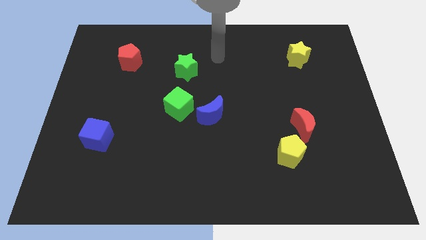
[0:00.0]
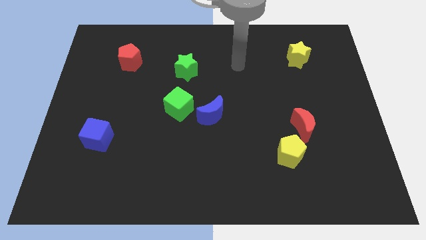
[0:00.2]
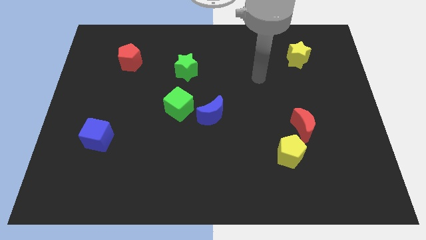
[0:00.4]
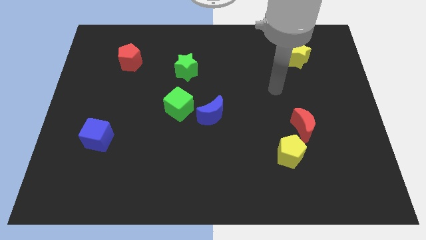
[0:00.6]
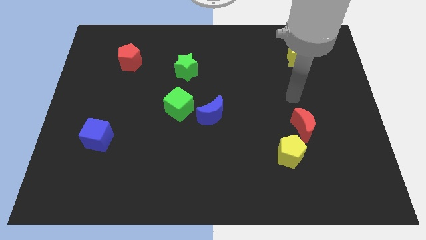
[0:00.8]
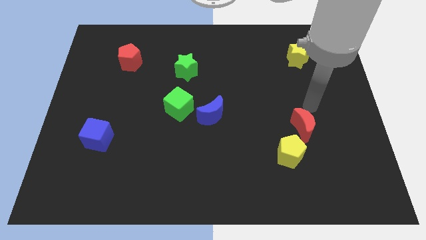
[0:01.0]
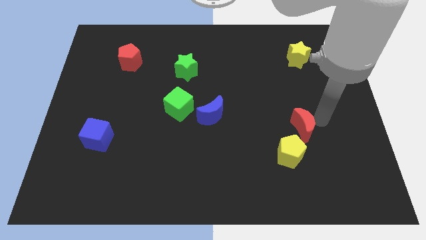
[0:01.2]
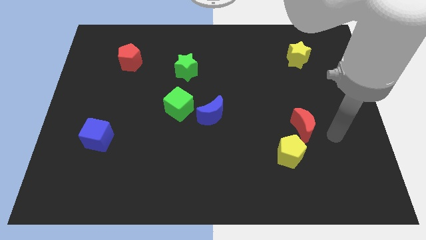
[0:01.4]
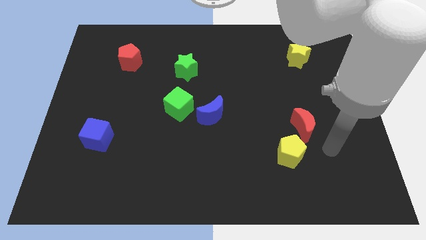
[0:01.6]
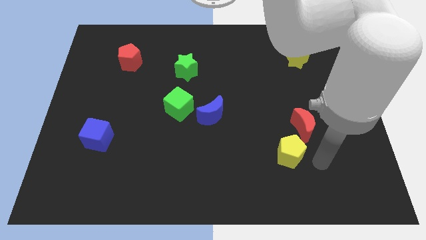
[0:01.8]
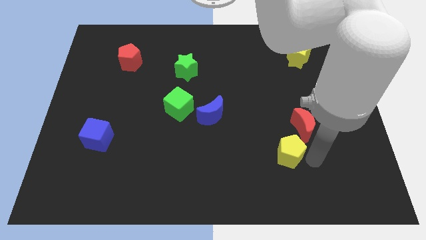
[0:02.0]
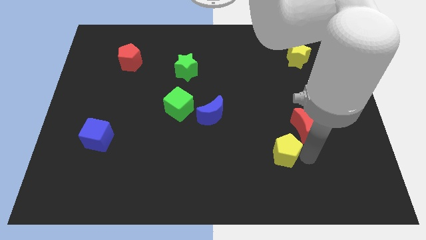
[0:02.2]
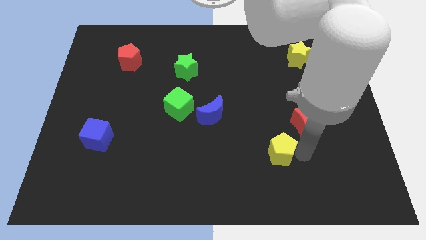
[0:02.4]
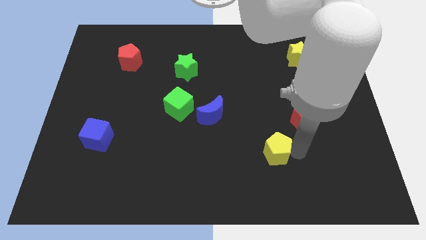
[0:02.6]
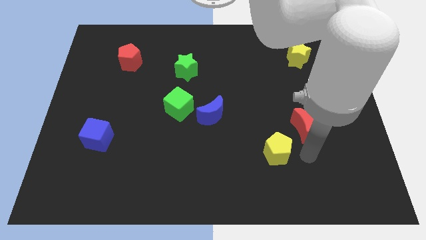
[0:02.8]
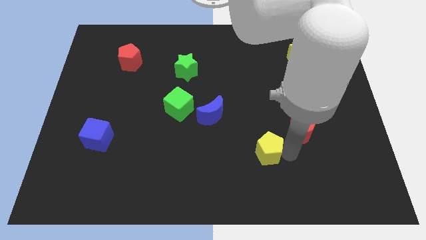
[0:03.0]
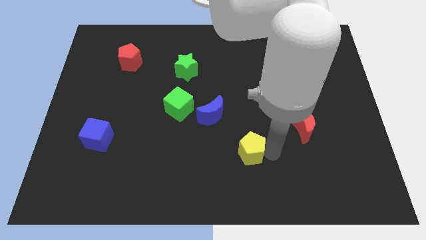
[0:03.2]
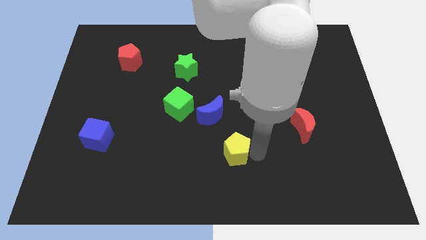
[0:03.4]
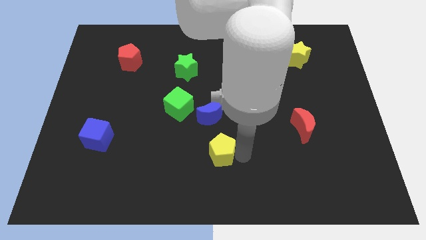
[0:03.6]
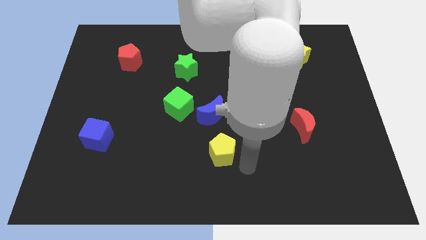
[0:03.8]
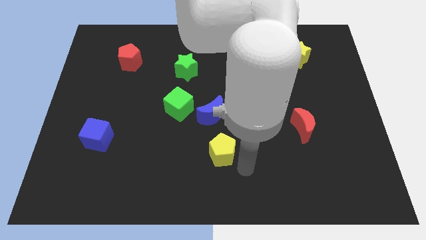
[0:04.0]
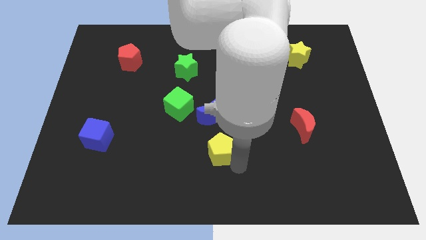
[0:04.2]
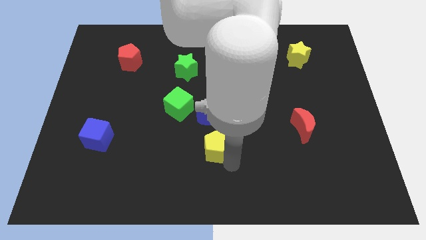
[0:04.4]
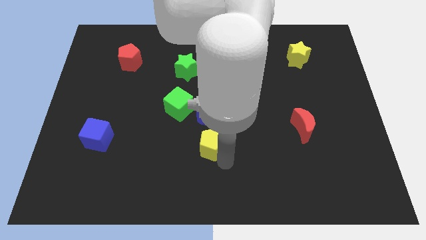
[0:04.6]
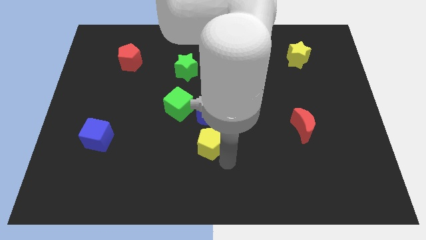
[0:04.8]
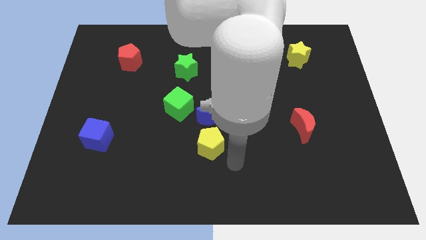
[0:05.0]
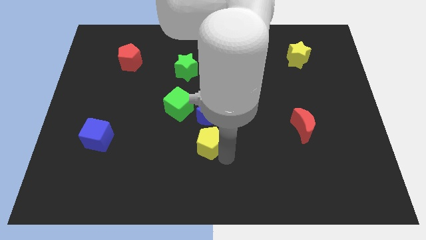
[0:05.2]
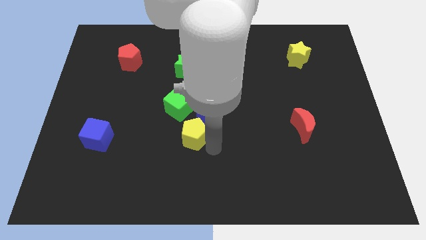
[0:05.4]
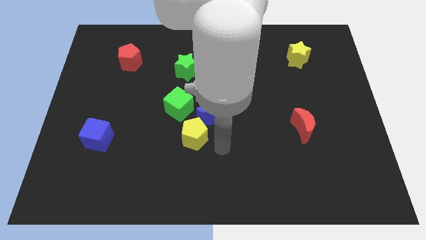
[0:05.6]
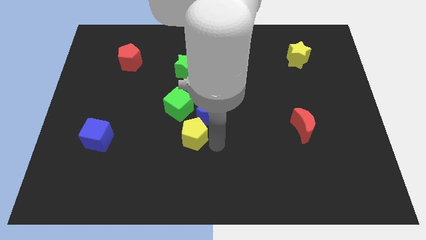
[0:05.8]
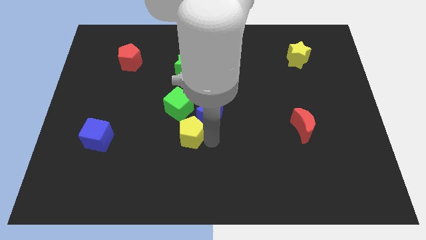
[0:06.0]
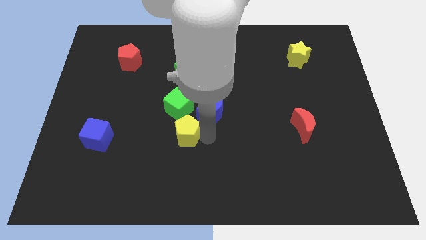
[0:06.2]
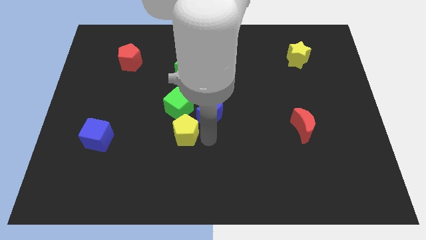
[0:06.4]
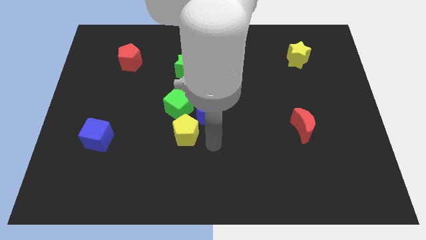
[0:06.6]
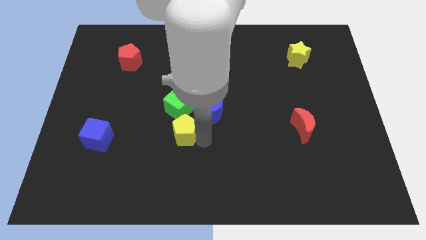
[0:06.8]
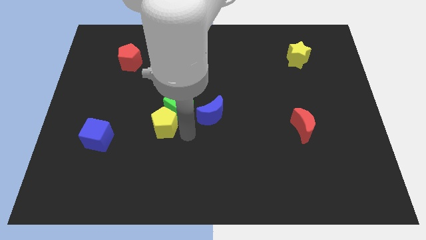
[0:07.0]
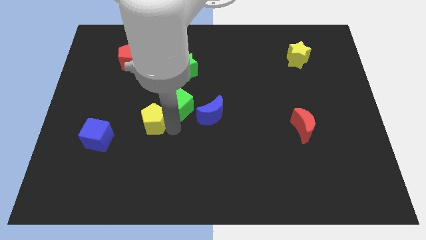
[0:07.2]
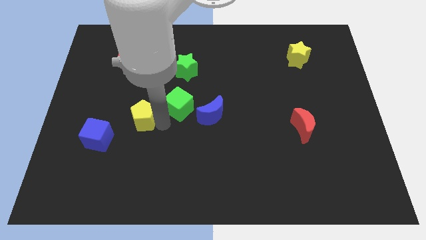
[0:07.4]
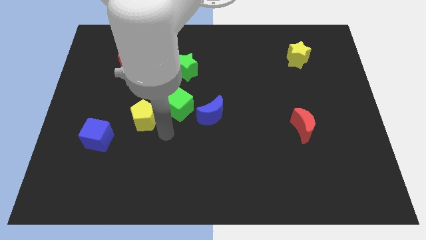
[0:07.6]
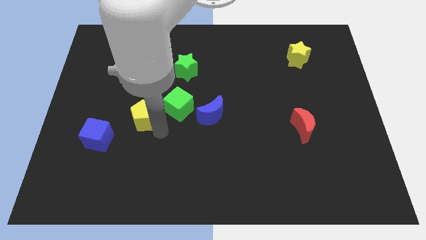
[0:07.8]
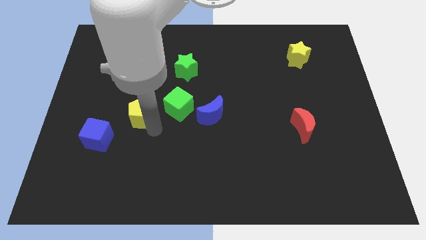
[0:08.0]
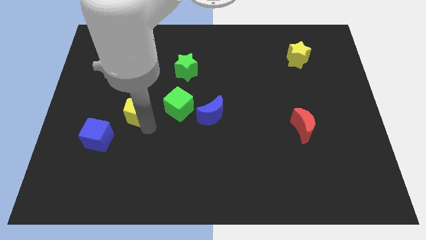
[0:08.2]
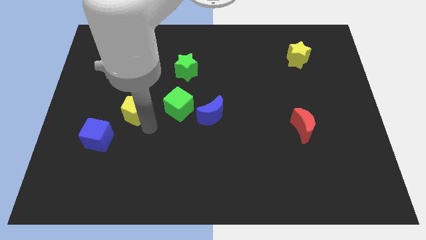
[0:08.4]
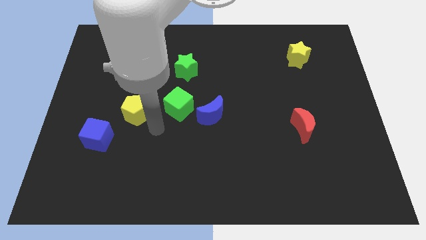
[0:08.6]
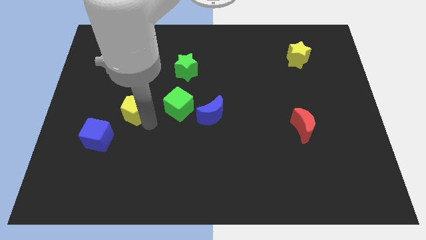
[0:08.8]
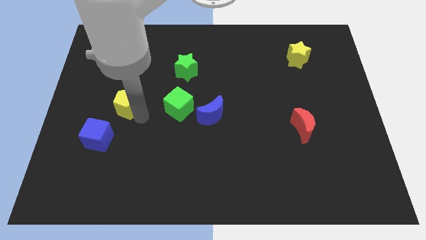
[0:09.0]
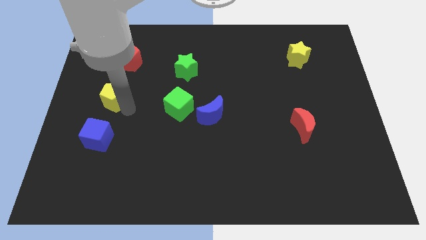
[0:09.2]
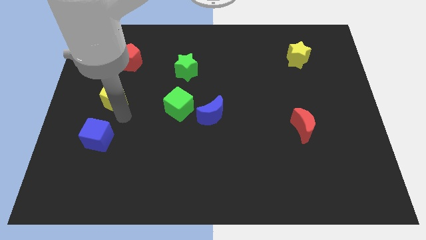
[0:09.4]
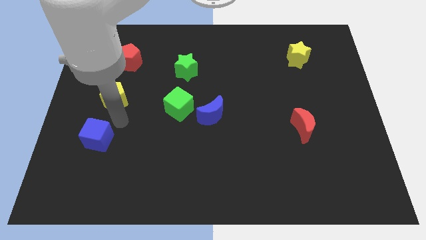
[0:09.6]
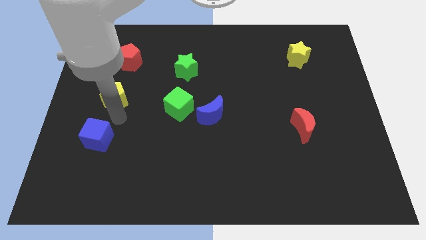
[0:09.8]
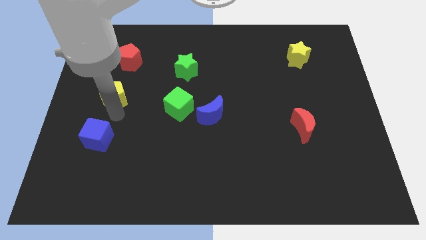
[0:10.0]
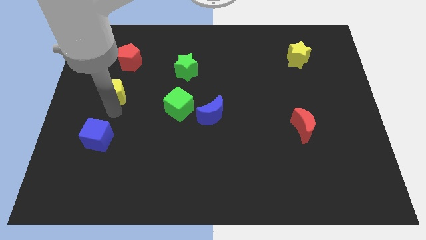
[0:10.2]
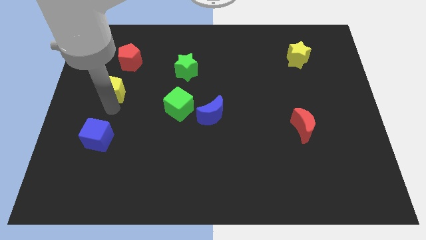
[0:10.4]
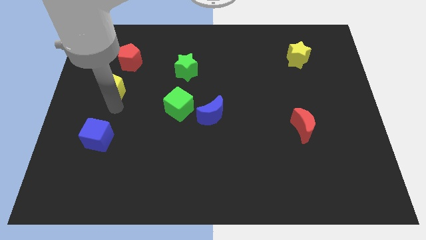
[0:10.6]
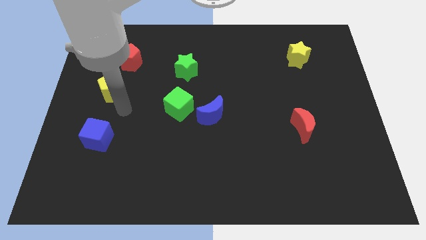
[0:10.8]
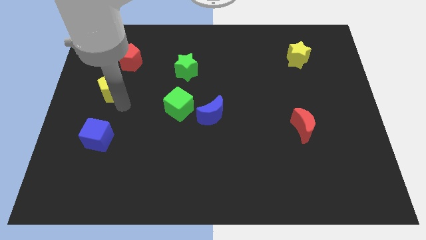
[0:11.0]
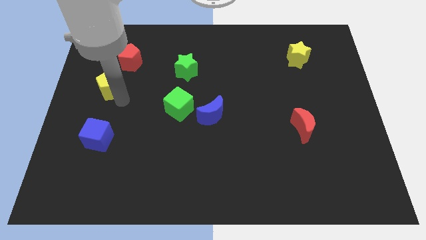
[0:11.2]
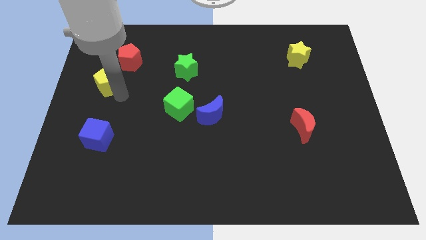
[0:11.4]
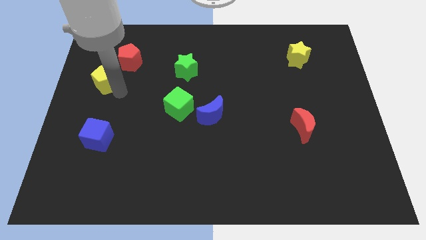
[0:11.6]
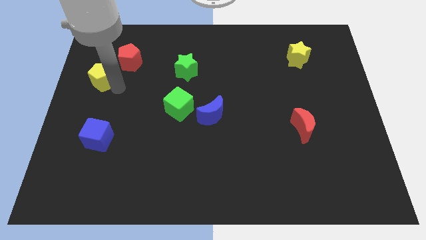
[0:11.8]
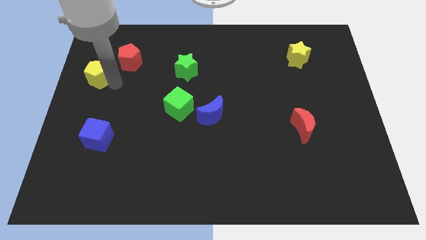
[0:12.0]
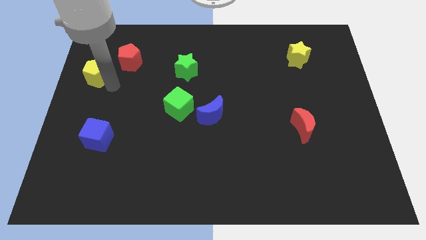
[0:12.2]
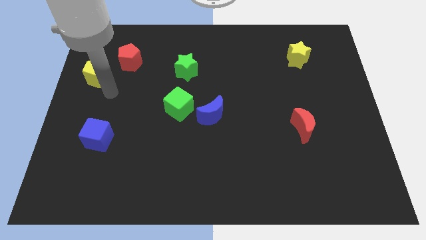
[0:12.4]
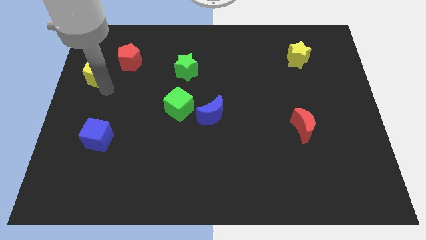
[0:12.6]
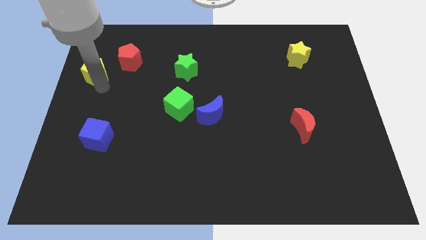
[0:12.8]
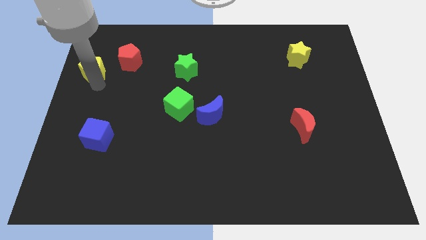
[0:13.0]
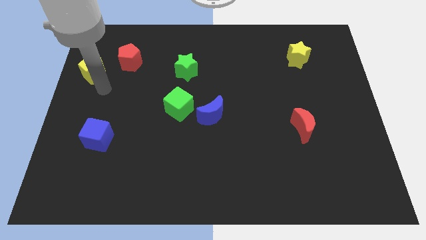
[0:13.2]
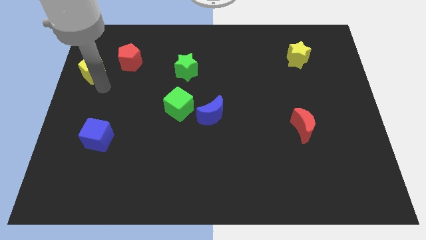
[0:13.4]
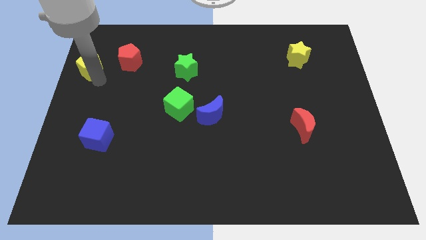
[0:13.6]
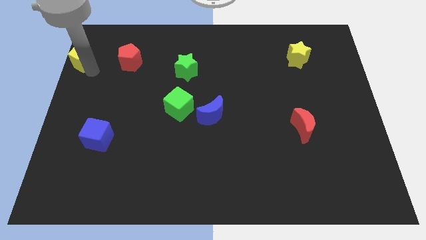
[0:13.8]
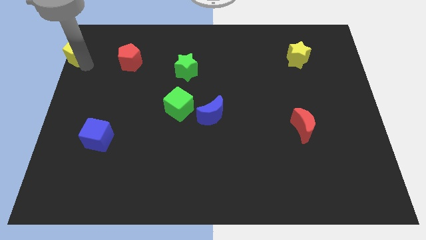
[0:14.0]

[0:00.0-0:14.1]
slide the yellow pentagon to the top left of the board
